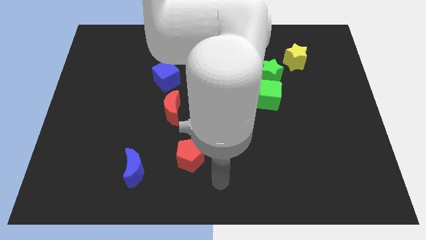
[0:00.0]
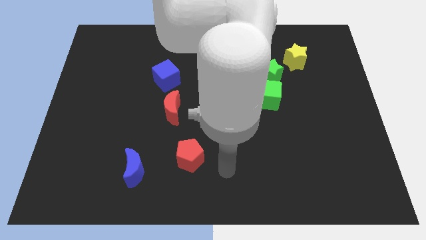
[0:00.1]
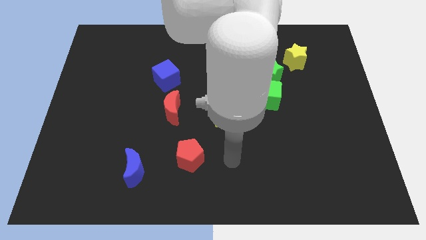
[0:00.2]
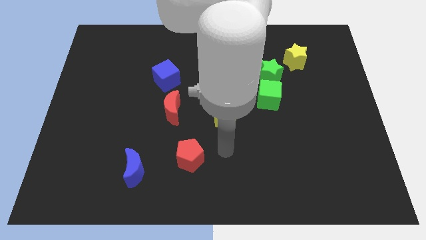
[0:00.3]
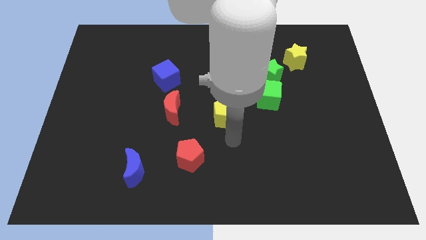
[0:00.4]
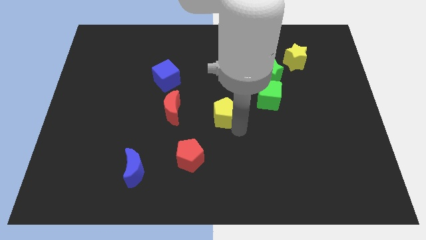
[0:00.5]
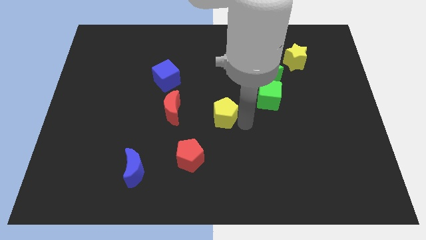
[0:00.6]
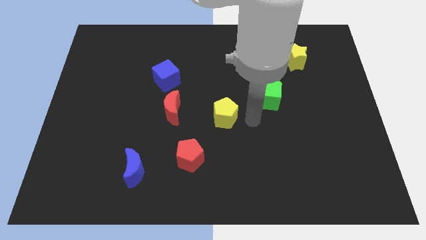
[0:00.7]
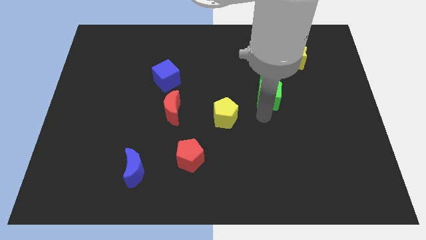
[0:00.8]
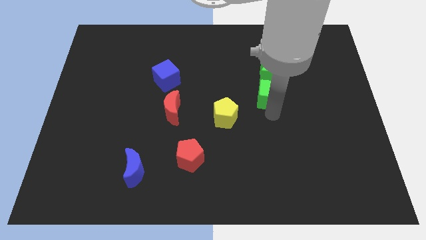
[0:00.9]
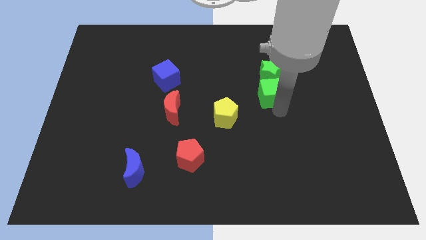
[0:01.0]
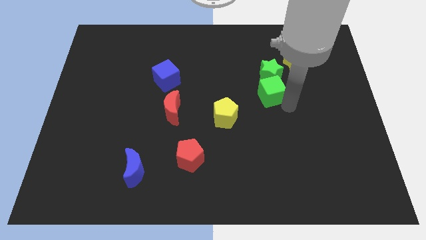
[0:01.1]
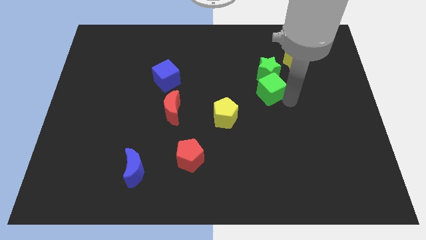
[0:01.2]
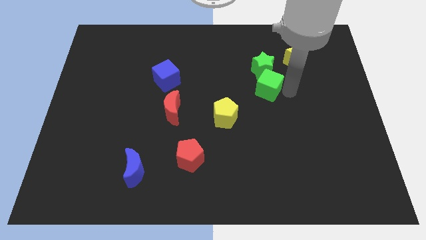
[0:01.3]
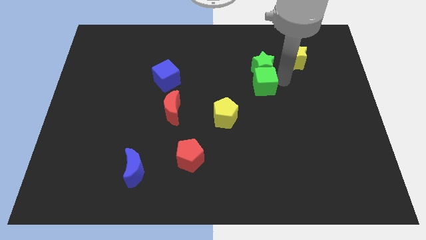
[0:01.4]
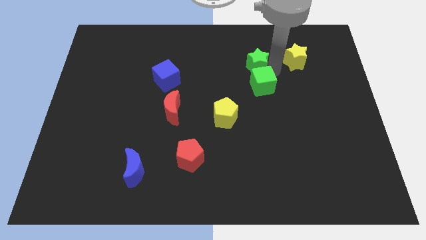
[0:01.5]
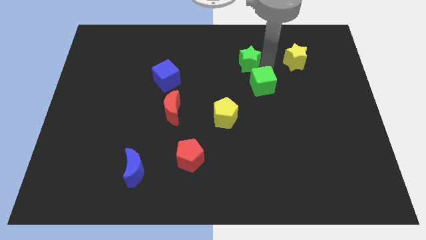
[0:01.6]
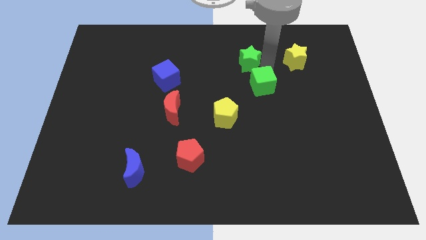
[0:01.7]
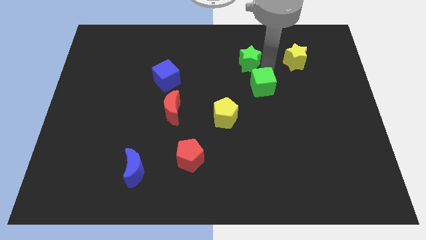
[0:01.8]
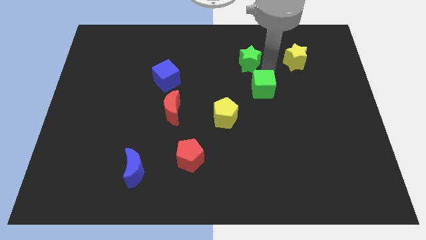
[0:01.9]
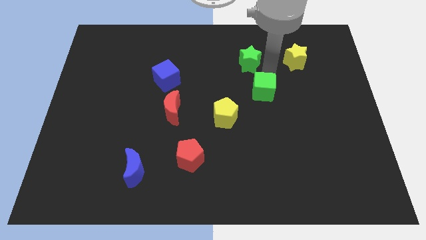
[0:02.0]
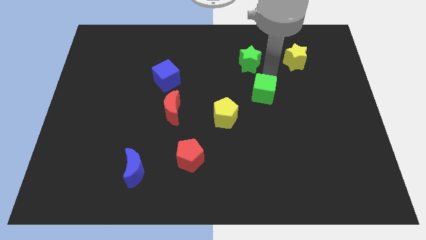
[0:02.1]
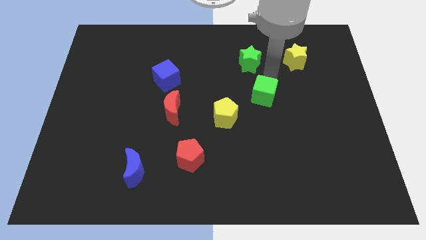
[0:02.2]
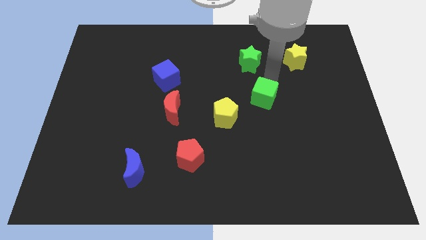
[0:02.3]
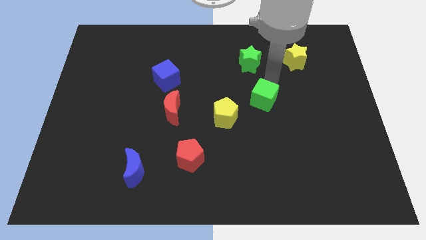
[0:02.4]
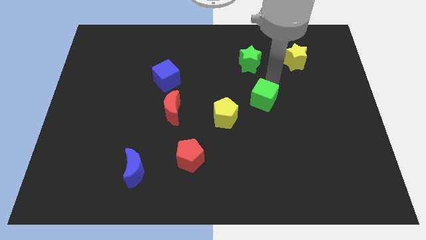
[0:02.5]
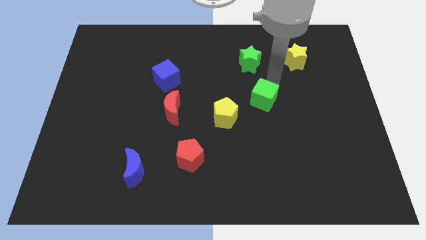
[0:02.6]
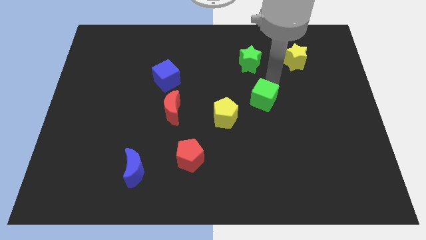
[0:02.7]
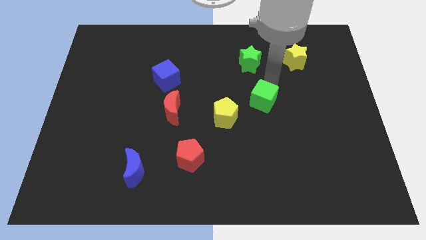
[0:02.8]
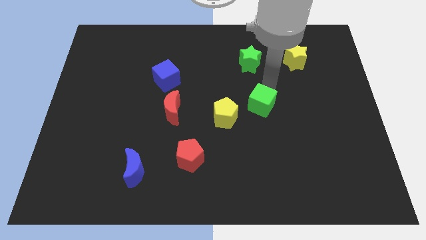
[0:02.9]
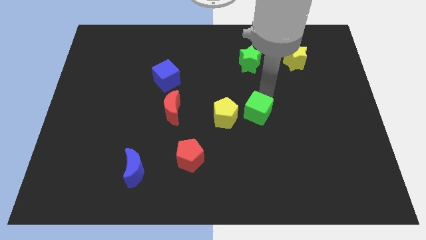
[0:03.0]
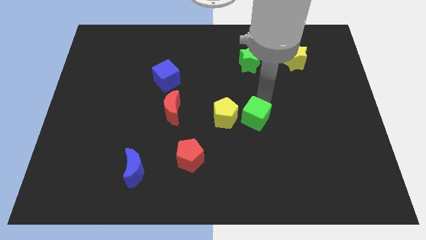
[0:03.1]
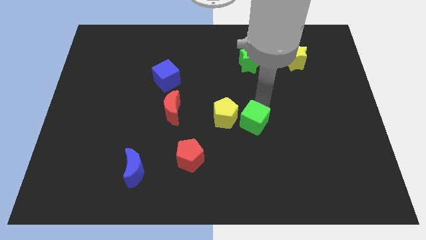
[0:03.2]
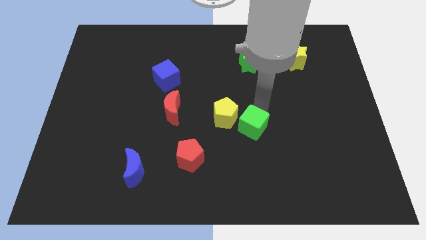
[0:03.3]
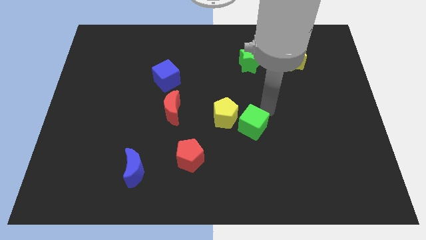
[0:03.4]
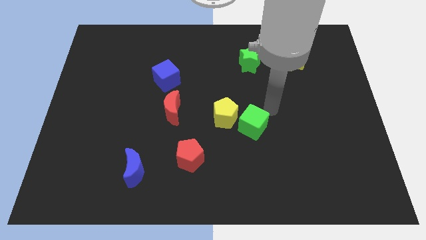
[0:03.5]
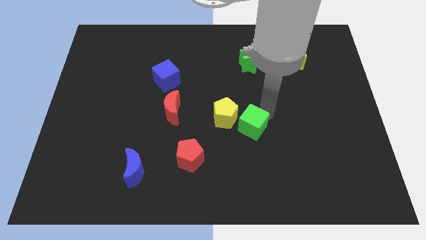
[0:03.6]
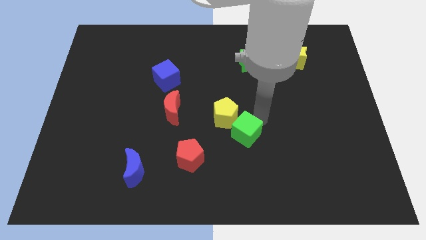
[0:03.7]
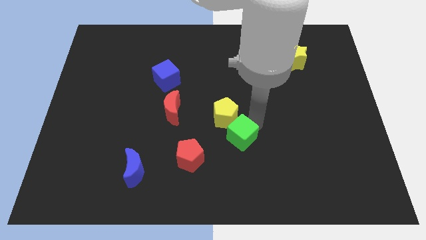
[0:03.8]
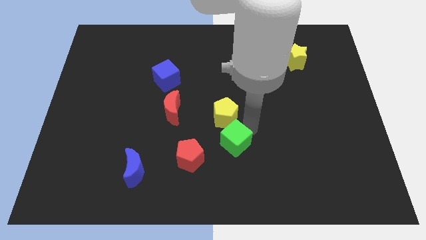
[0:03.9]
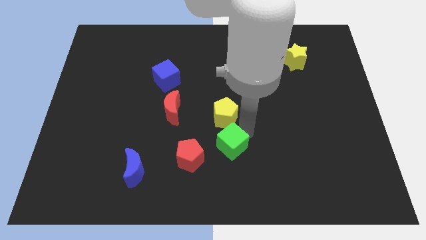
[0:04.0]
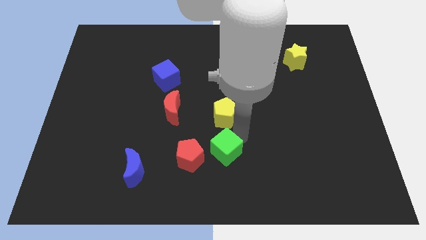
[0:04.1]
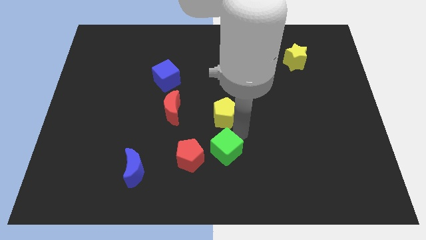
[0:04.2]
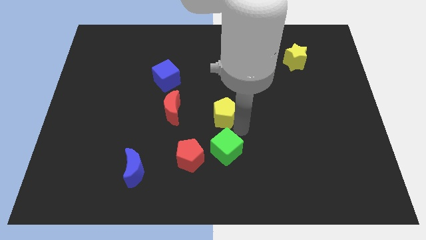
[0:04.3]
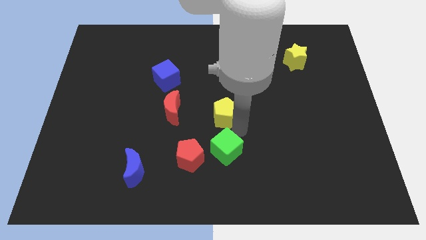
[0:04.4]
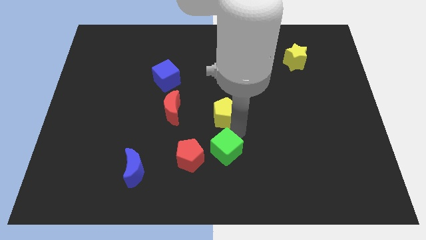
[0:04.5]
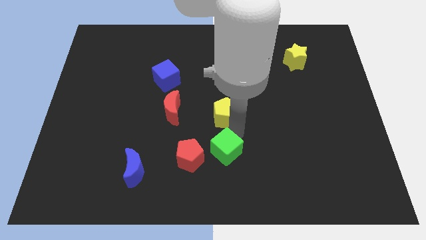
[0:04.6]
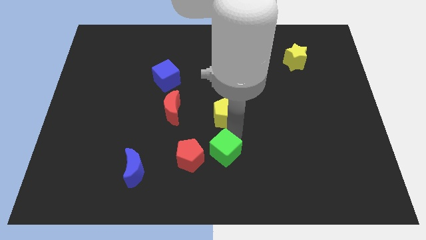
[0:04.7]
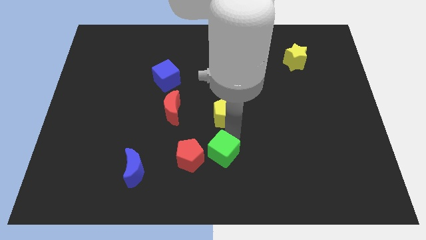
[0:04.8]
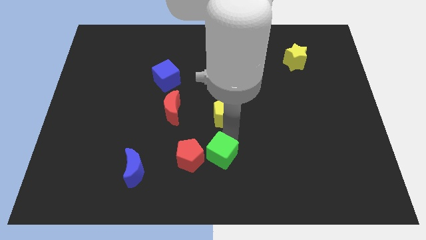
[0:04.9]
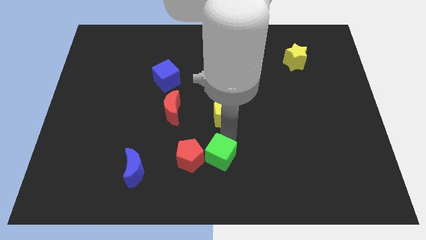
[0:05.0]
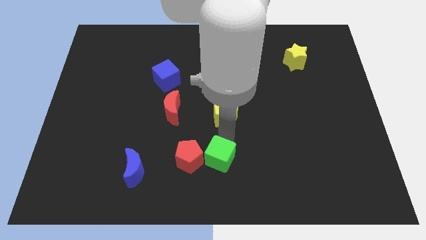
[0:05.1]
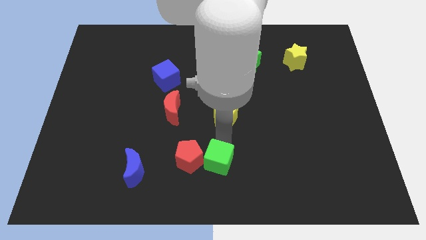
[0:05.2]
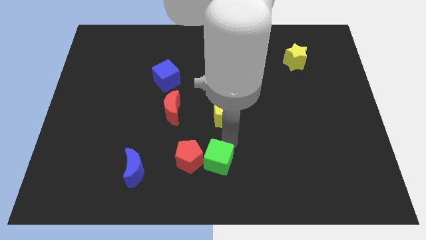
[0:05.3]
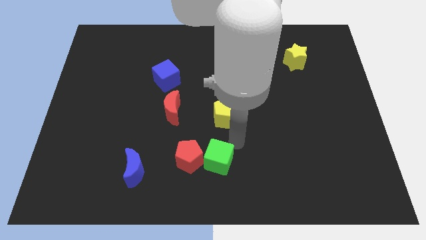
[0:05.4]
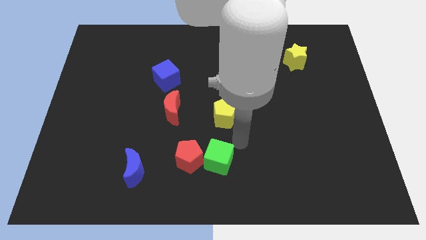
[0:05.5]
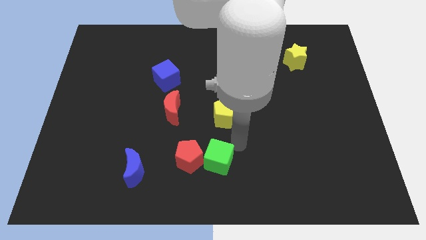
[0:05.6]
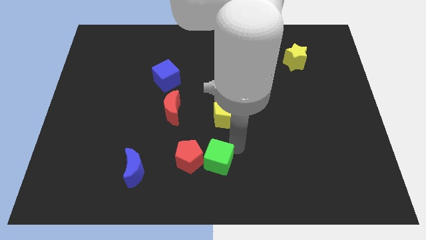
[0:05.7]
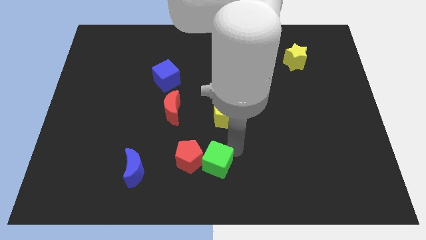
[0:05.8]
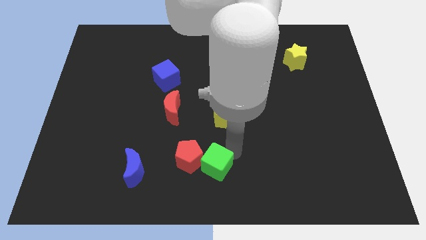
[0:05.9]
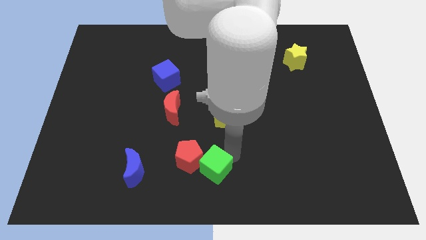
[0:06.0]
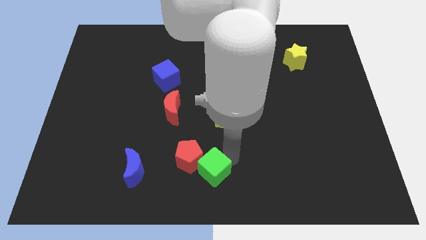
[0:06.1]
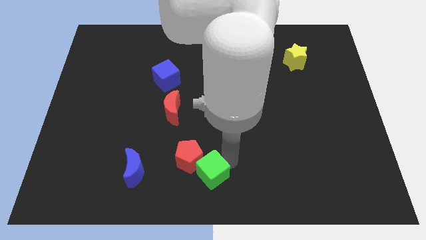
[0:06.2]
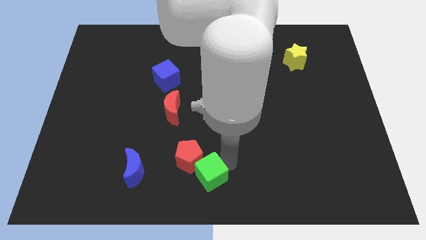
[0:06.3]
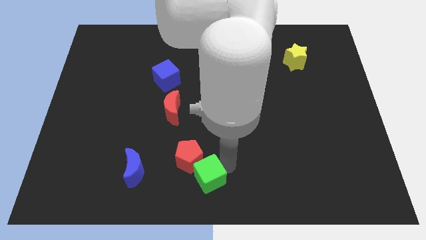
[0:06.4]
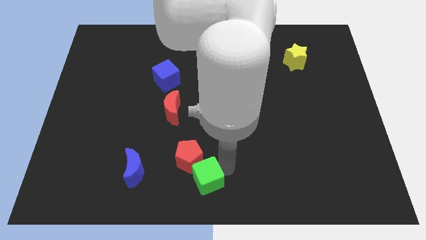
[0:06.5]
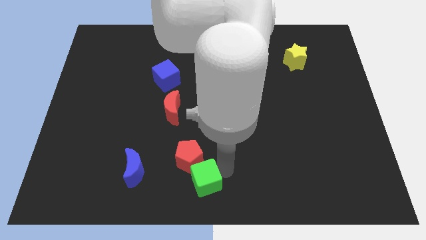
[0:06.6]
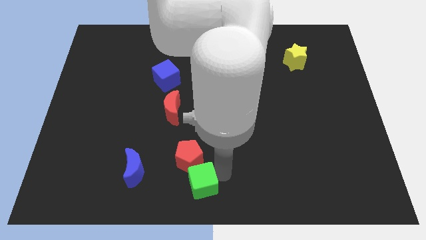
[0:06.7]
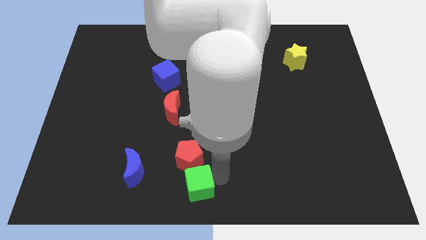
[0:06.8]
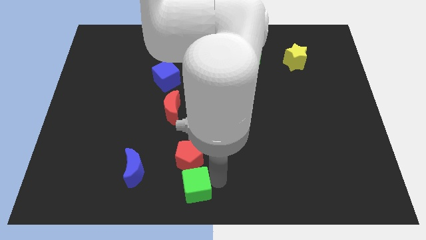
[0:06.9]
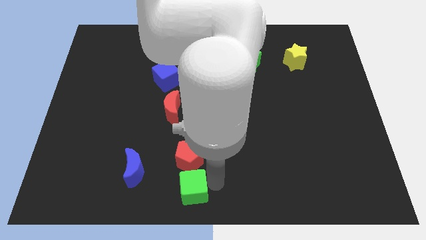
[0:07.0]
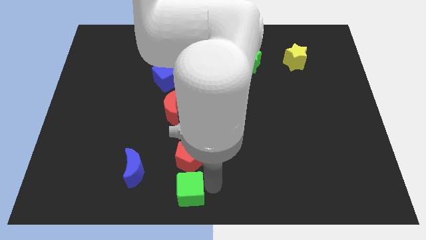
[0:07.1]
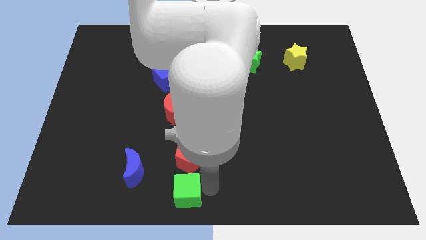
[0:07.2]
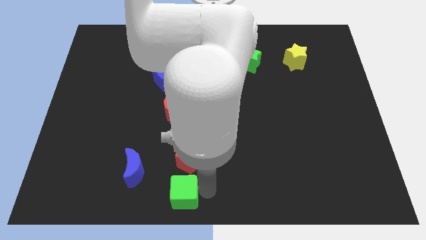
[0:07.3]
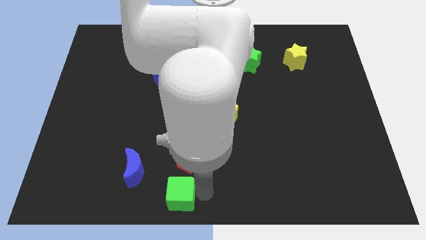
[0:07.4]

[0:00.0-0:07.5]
slide the green cube diagonally down and to the left of the red pentagon

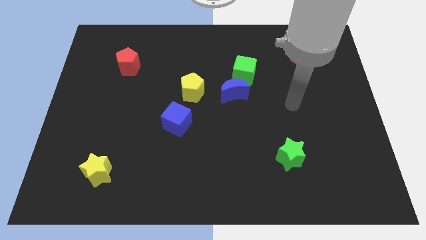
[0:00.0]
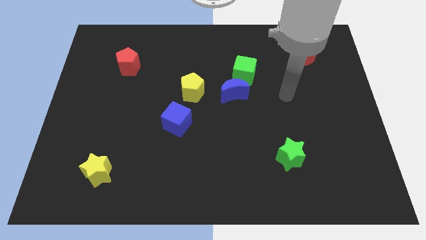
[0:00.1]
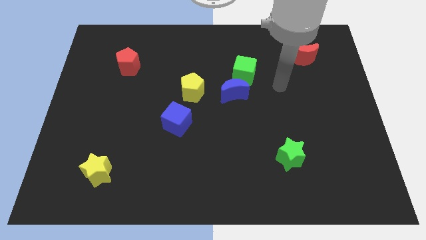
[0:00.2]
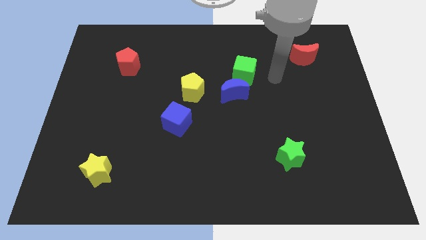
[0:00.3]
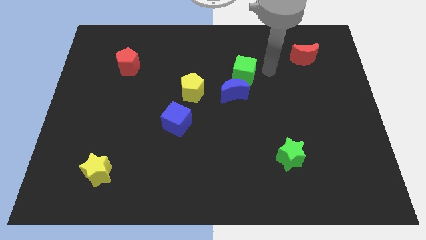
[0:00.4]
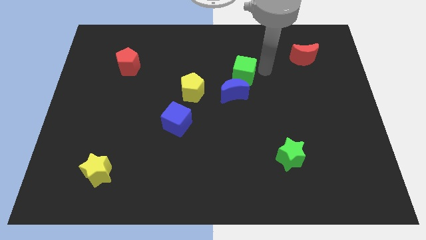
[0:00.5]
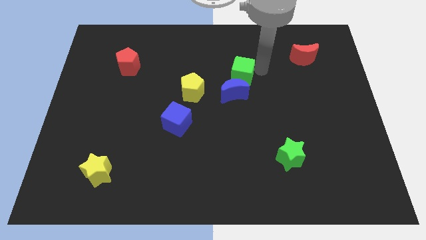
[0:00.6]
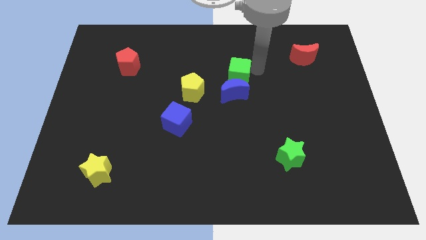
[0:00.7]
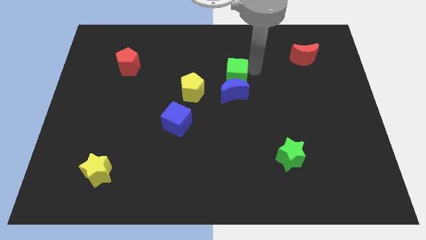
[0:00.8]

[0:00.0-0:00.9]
move the green cube diagonally up and to the left of the blue moon
